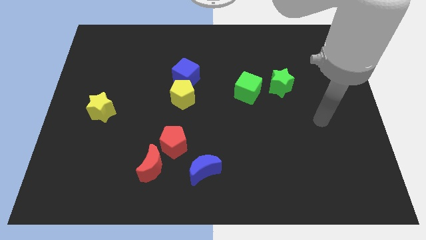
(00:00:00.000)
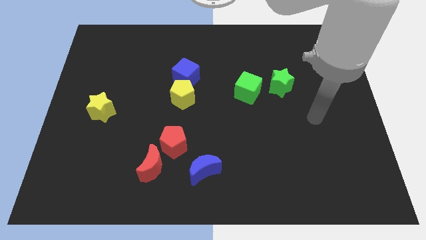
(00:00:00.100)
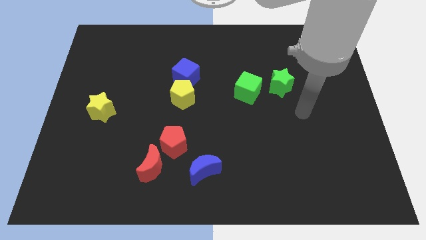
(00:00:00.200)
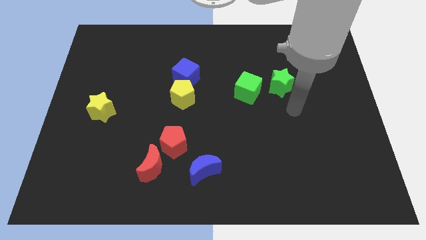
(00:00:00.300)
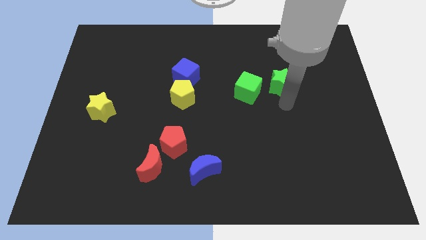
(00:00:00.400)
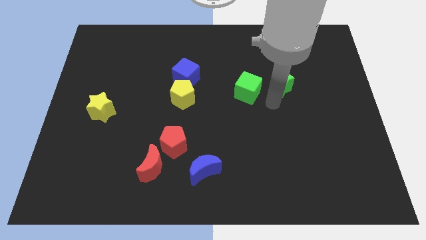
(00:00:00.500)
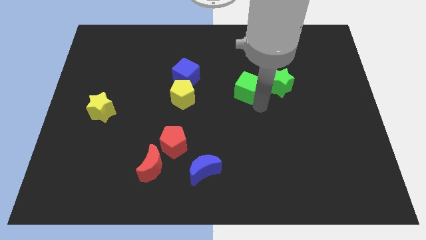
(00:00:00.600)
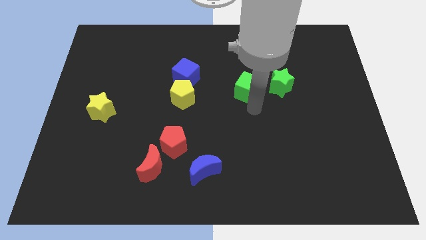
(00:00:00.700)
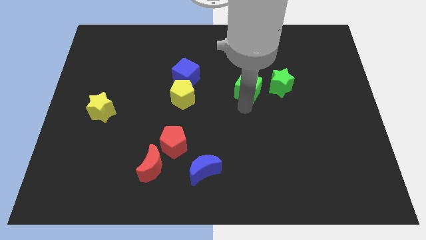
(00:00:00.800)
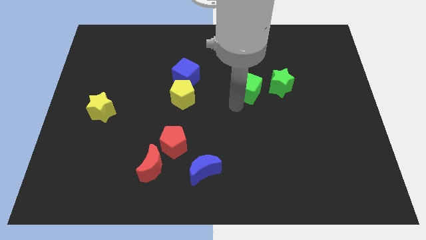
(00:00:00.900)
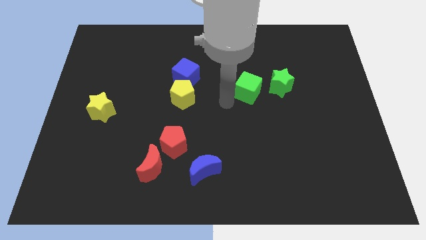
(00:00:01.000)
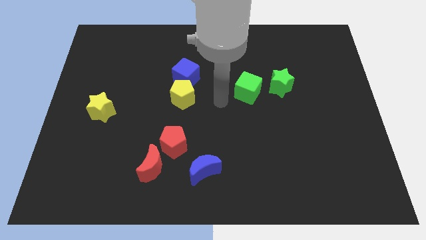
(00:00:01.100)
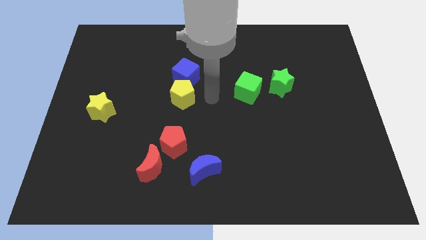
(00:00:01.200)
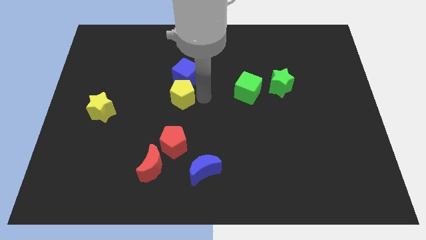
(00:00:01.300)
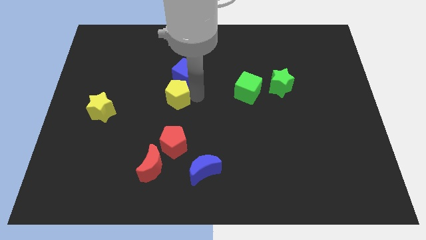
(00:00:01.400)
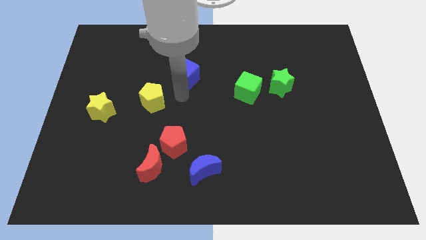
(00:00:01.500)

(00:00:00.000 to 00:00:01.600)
move the blue cube away from the yellow pentagon

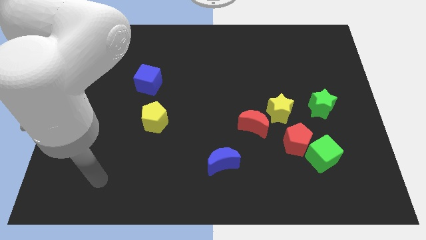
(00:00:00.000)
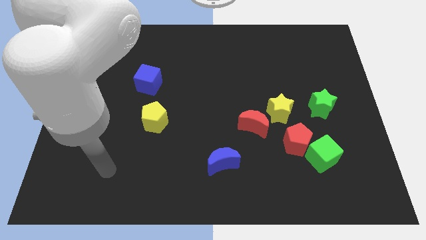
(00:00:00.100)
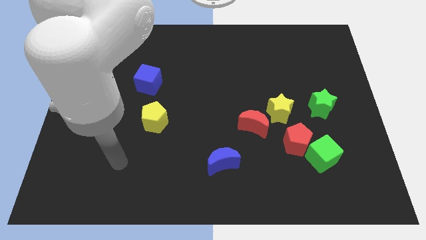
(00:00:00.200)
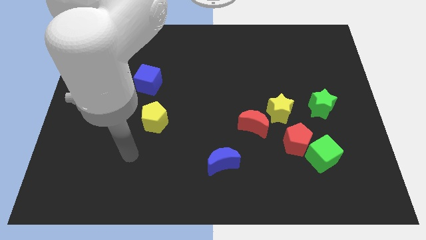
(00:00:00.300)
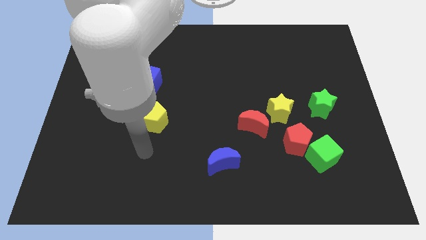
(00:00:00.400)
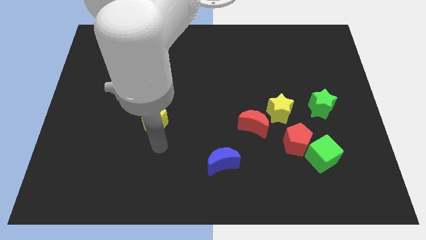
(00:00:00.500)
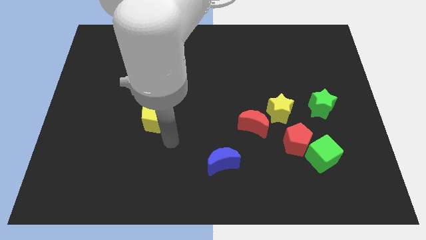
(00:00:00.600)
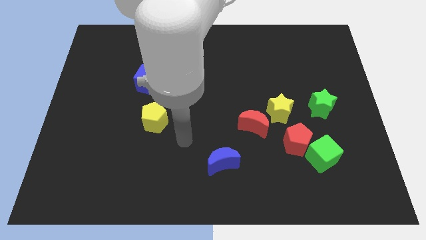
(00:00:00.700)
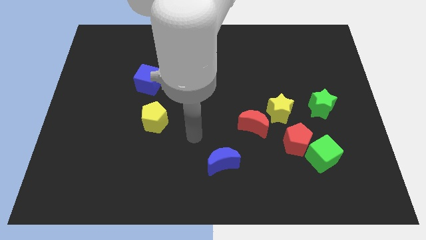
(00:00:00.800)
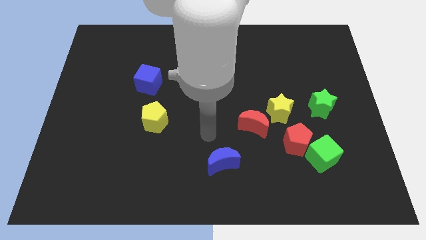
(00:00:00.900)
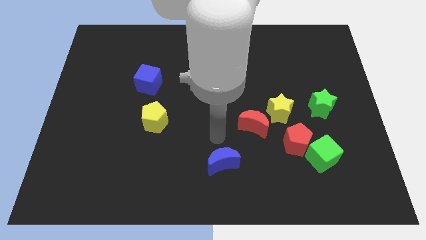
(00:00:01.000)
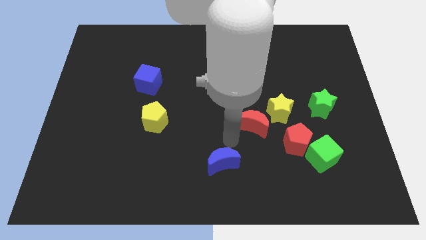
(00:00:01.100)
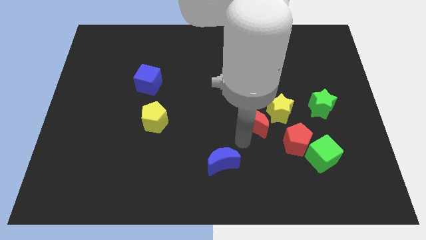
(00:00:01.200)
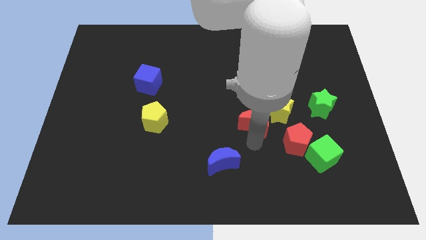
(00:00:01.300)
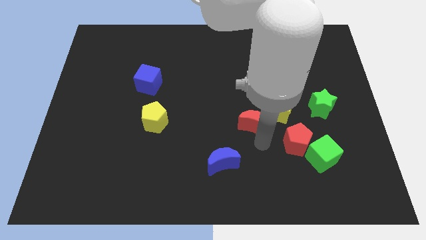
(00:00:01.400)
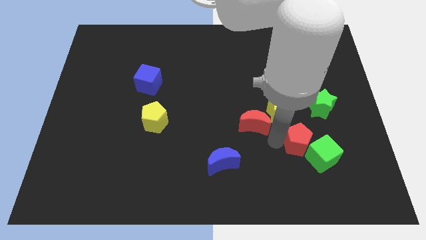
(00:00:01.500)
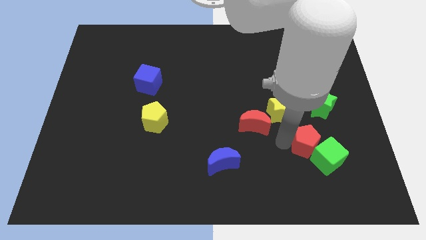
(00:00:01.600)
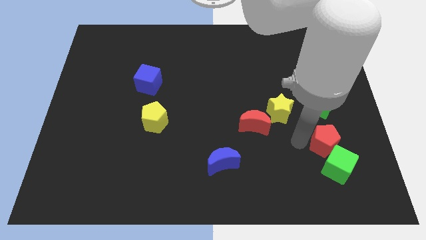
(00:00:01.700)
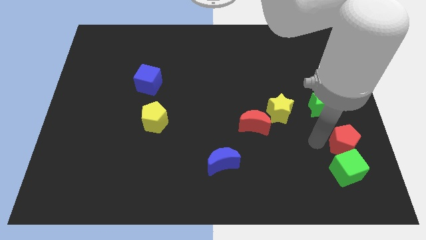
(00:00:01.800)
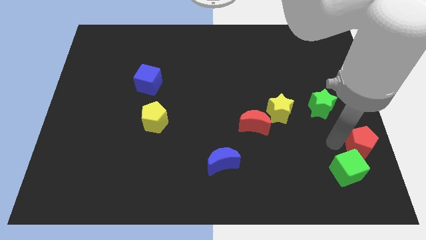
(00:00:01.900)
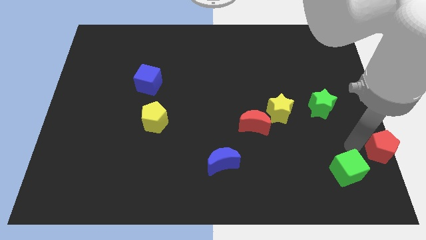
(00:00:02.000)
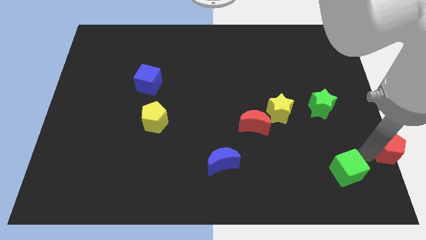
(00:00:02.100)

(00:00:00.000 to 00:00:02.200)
pull the green cube apart from the red pentagon

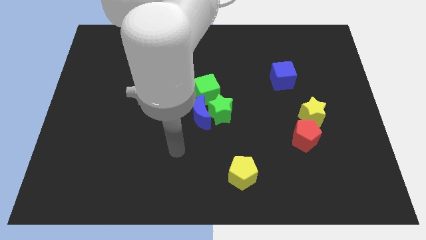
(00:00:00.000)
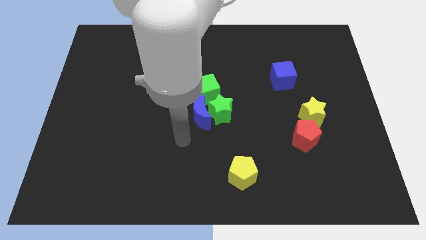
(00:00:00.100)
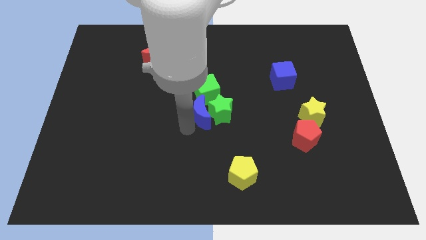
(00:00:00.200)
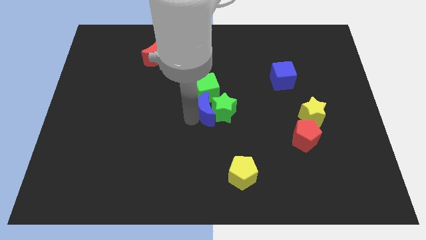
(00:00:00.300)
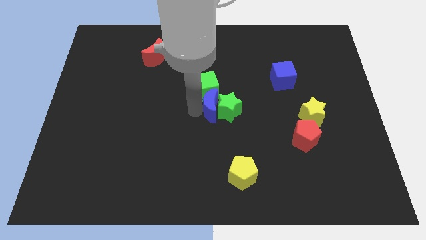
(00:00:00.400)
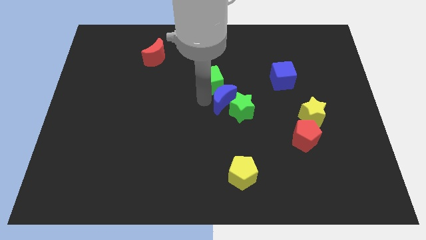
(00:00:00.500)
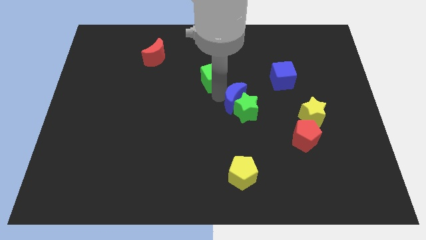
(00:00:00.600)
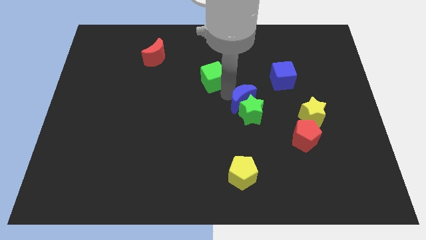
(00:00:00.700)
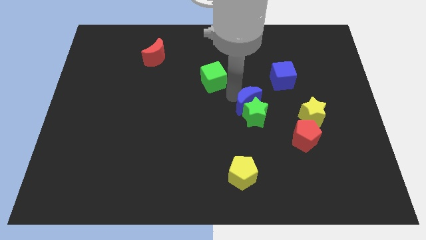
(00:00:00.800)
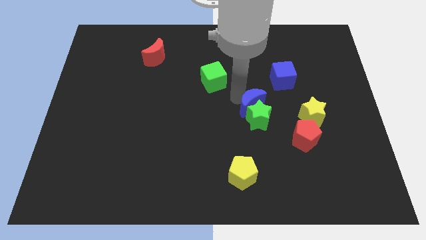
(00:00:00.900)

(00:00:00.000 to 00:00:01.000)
move the green star away from the blue moon and green cube

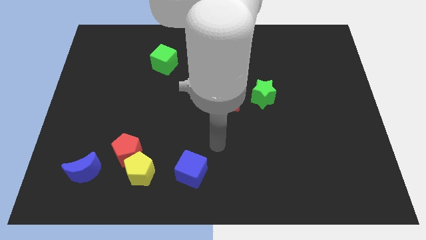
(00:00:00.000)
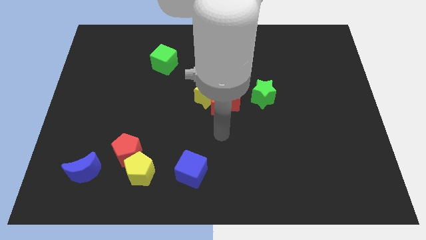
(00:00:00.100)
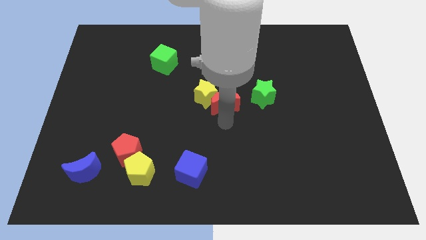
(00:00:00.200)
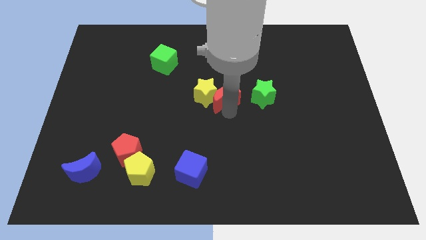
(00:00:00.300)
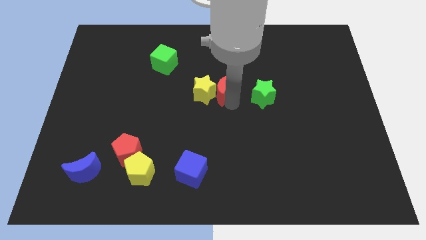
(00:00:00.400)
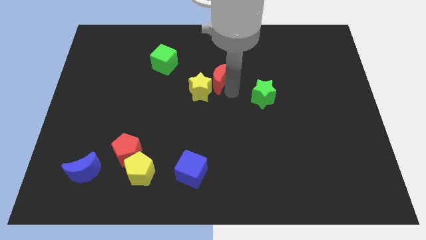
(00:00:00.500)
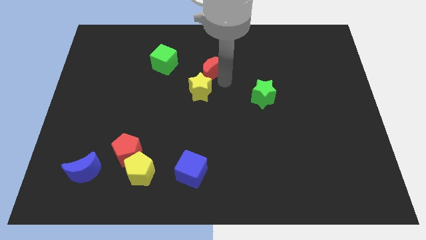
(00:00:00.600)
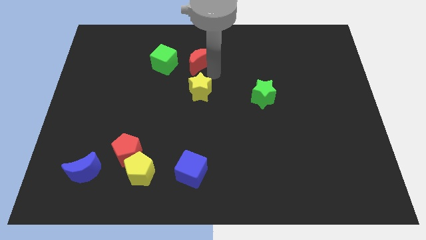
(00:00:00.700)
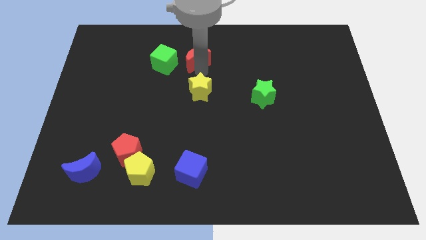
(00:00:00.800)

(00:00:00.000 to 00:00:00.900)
pull the yellow star apart from the red moon

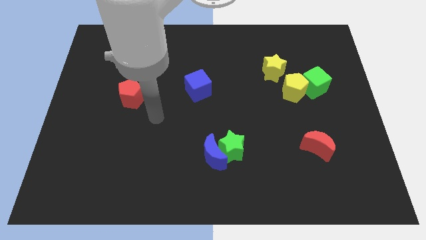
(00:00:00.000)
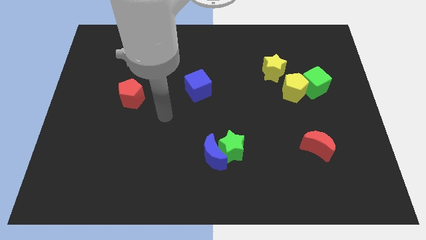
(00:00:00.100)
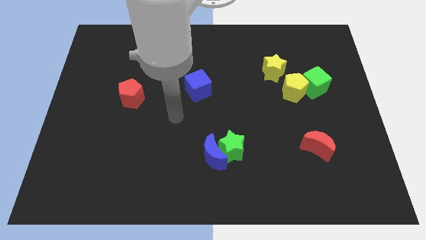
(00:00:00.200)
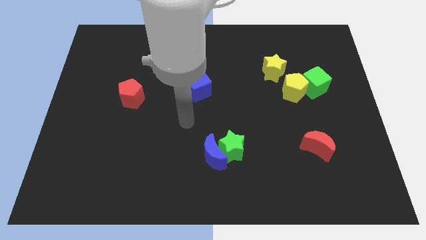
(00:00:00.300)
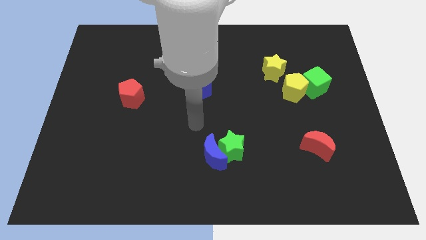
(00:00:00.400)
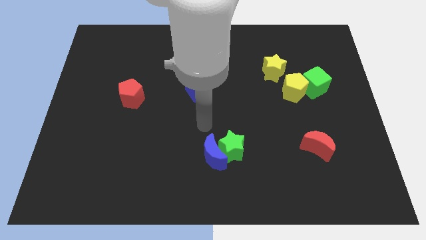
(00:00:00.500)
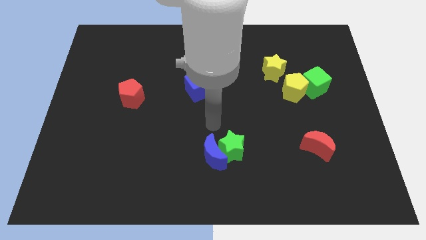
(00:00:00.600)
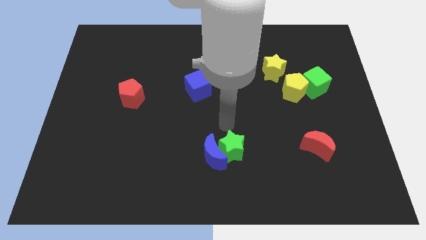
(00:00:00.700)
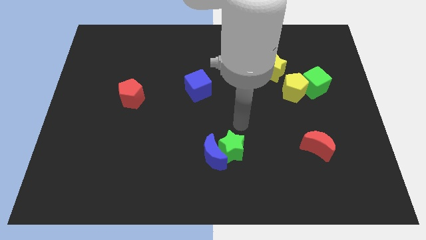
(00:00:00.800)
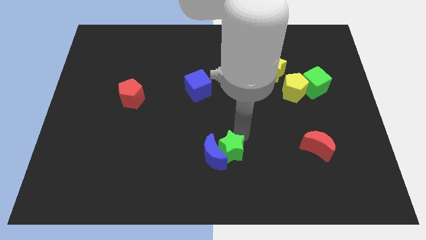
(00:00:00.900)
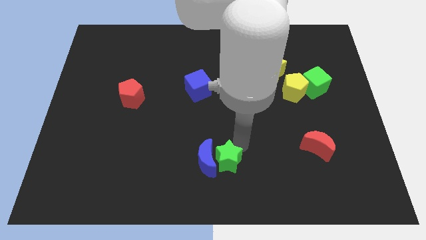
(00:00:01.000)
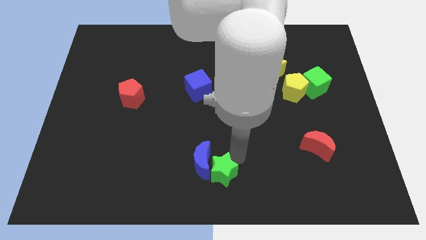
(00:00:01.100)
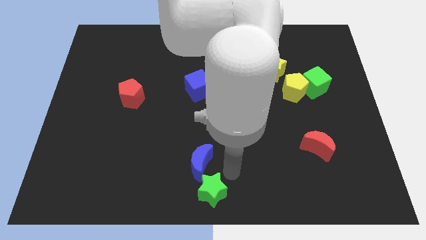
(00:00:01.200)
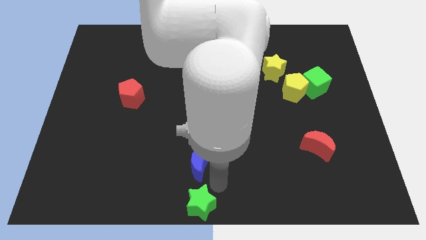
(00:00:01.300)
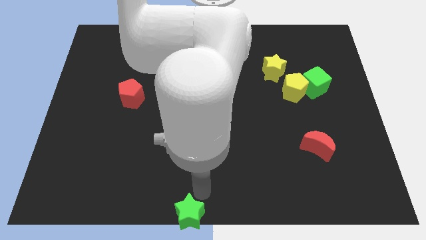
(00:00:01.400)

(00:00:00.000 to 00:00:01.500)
pull the blue moon apart from the green star

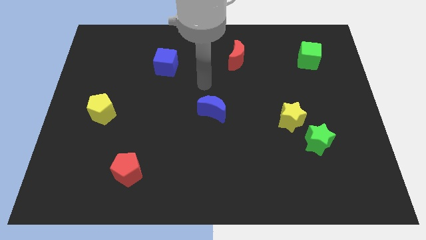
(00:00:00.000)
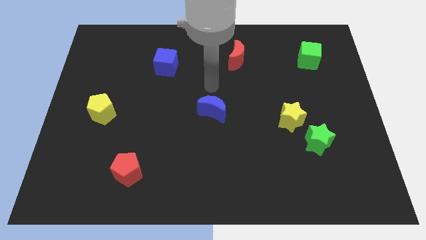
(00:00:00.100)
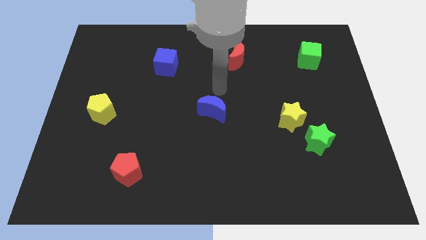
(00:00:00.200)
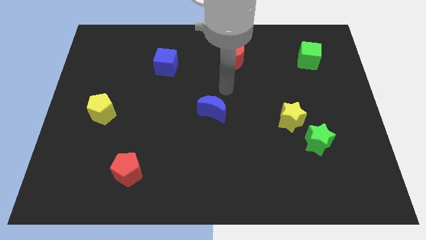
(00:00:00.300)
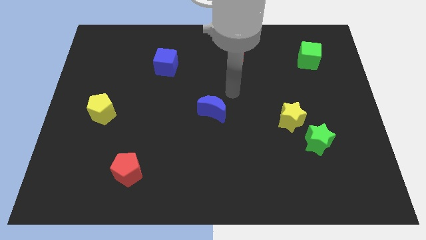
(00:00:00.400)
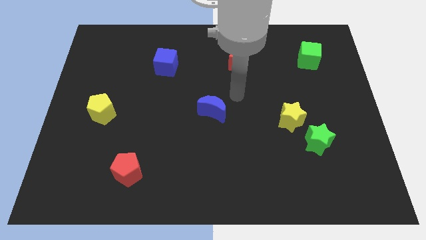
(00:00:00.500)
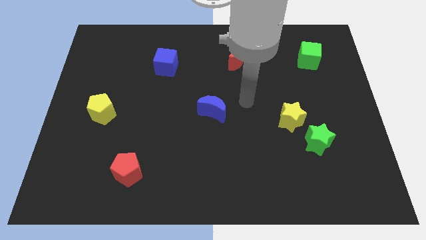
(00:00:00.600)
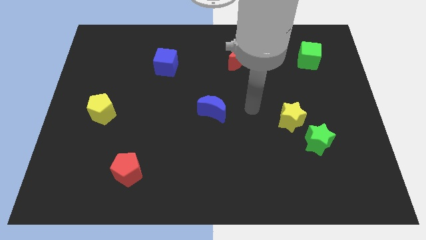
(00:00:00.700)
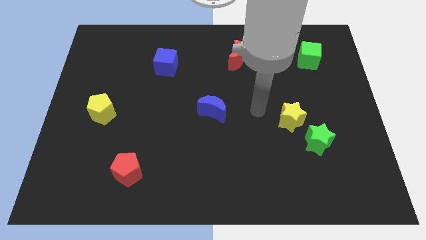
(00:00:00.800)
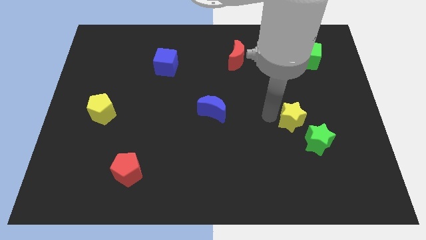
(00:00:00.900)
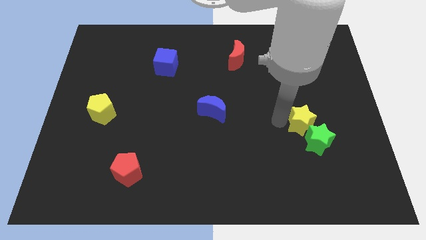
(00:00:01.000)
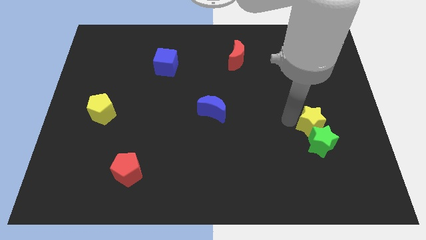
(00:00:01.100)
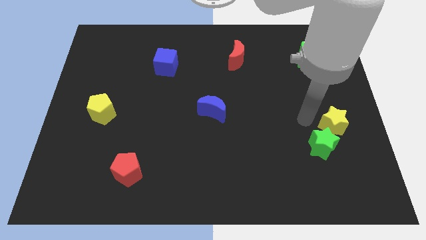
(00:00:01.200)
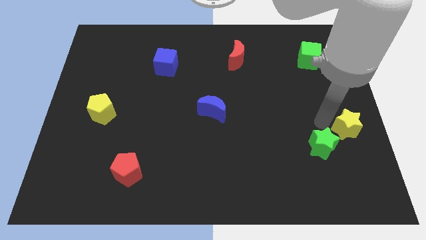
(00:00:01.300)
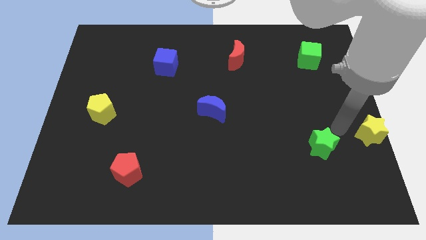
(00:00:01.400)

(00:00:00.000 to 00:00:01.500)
move the green star away from the yellow star

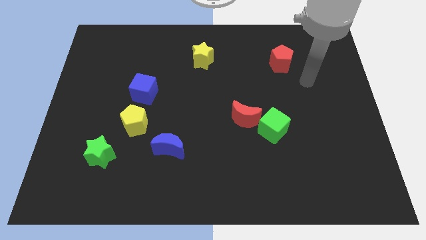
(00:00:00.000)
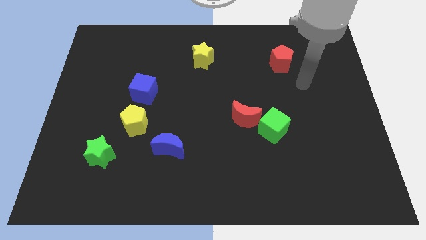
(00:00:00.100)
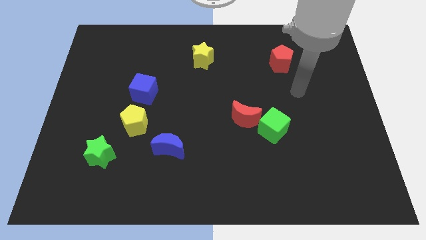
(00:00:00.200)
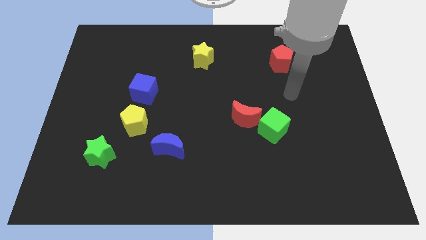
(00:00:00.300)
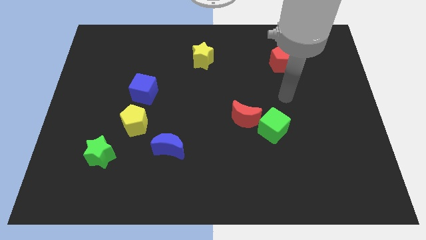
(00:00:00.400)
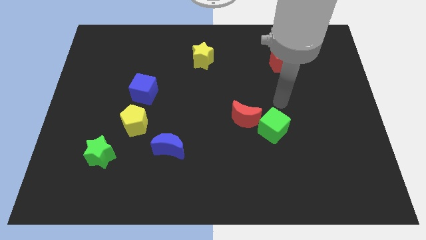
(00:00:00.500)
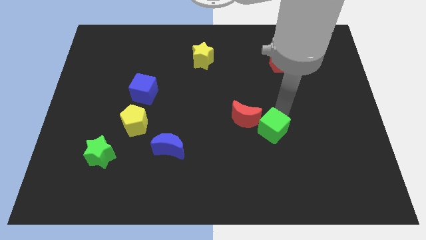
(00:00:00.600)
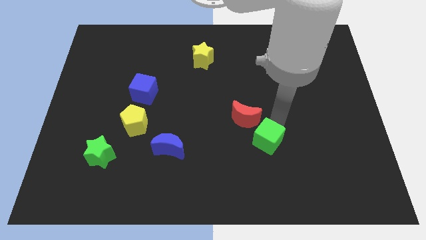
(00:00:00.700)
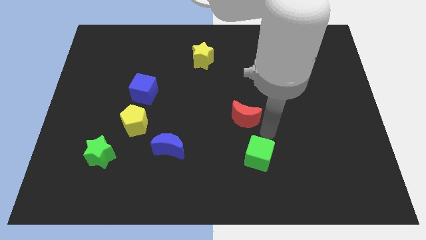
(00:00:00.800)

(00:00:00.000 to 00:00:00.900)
separate the red moon from the green cube
